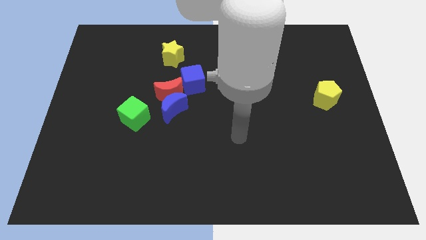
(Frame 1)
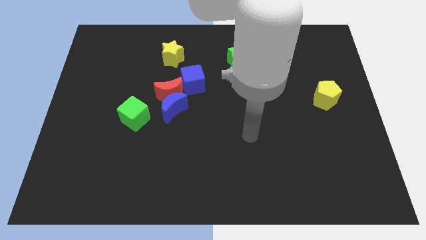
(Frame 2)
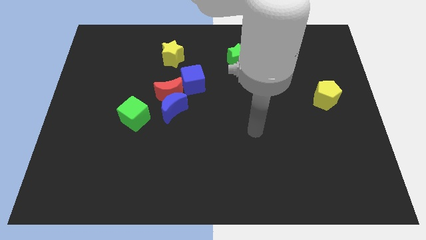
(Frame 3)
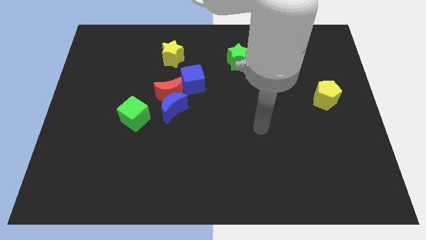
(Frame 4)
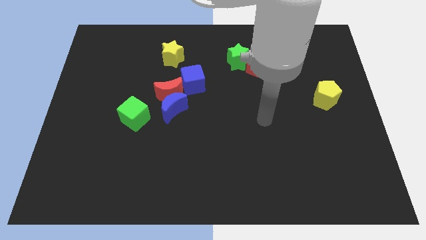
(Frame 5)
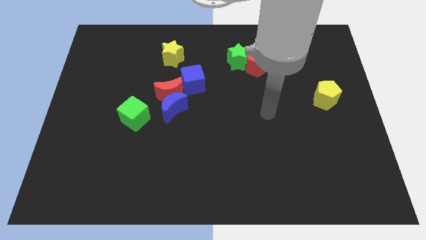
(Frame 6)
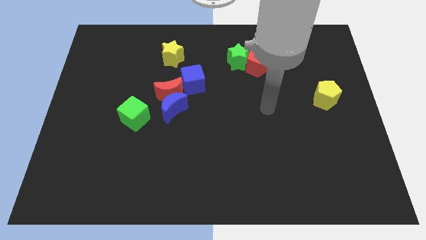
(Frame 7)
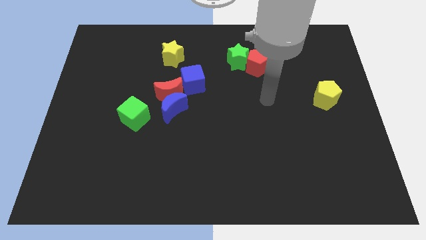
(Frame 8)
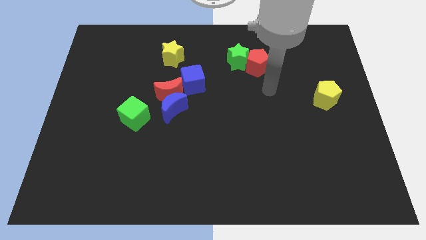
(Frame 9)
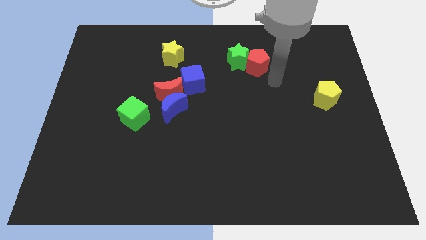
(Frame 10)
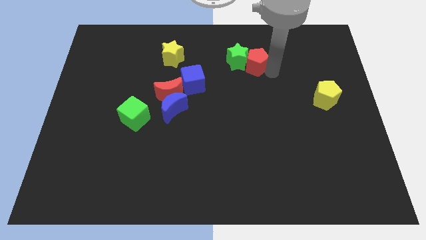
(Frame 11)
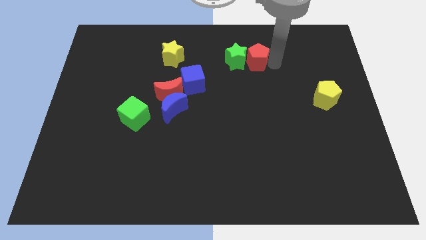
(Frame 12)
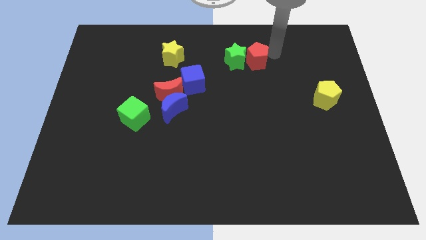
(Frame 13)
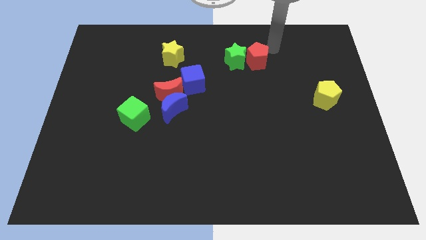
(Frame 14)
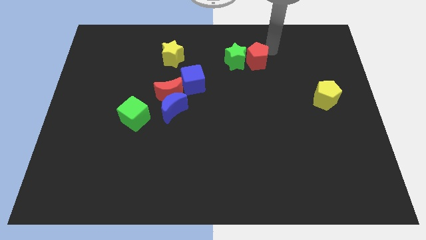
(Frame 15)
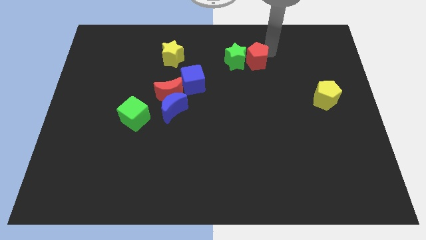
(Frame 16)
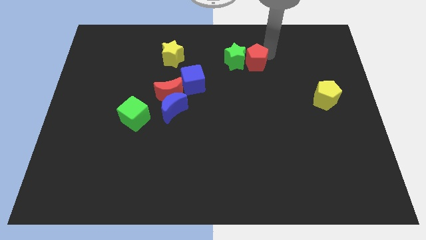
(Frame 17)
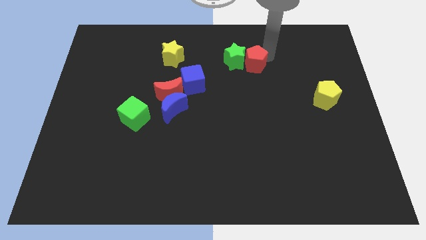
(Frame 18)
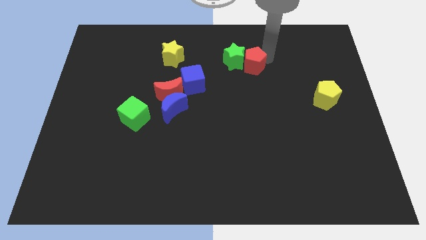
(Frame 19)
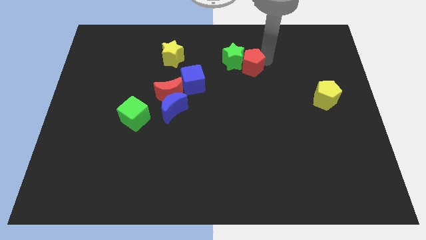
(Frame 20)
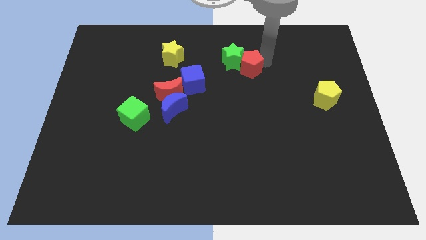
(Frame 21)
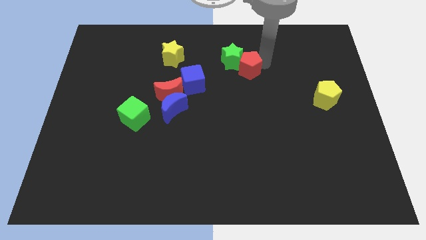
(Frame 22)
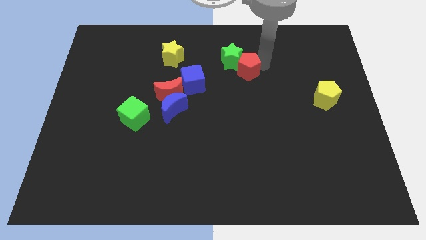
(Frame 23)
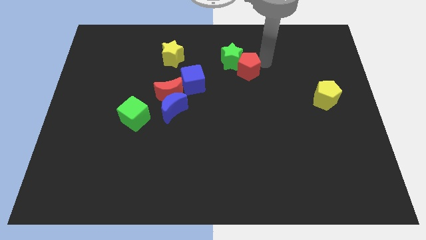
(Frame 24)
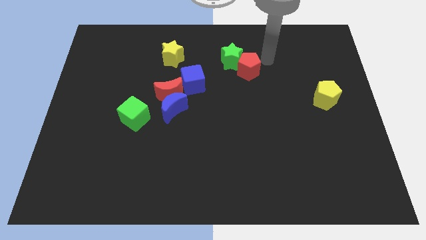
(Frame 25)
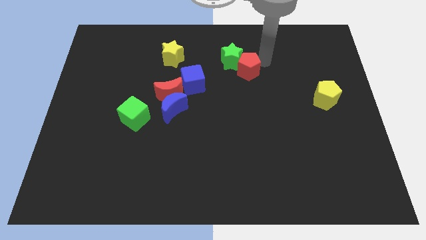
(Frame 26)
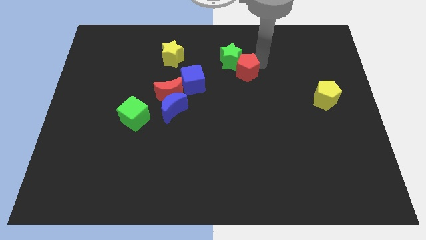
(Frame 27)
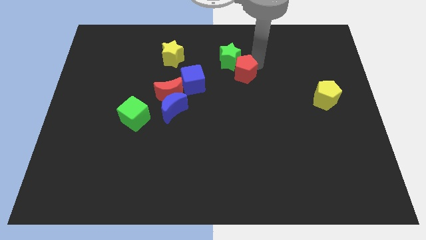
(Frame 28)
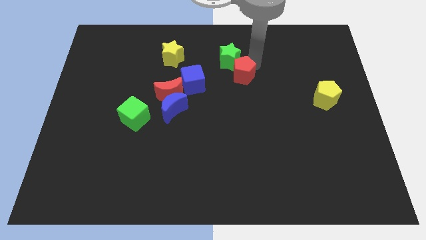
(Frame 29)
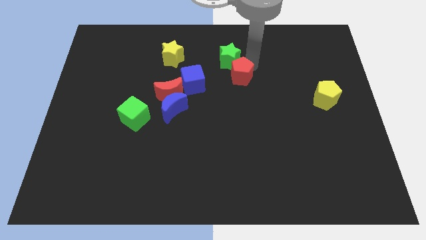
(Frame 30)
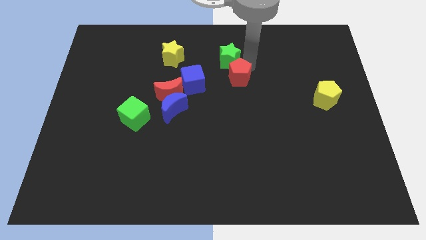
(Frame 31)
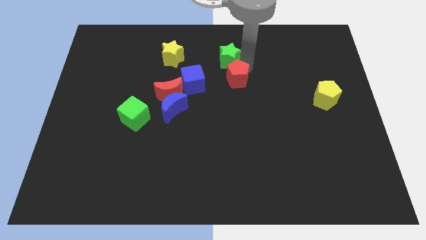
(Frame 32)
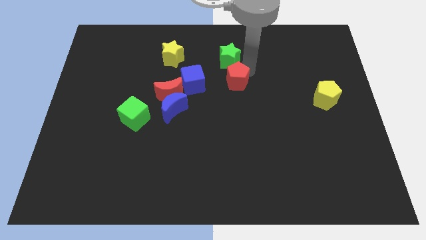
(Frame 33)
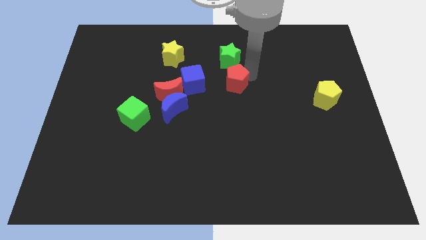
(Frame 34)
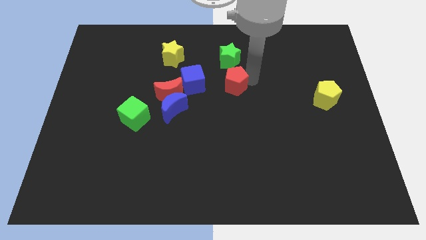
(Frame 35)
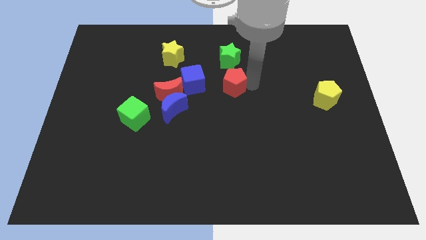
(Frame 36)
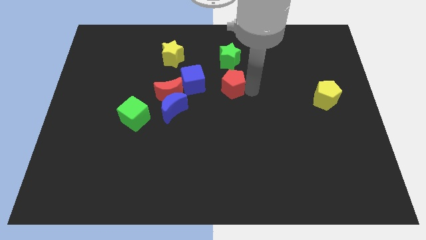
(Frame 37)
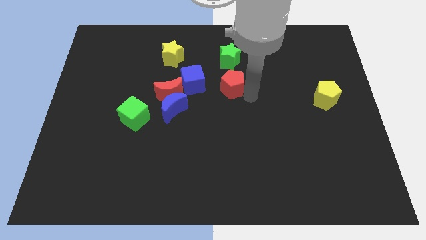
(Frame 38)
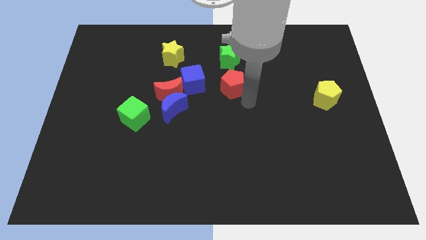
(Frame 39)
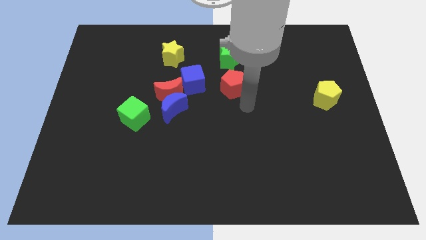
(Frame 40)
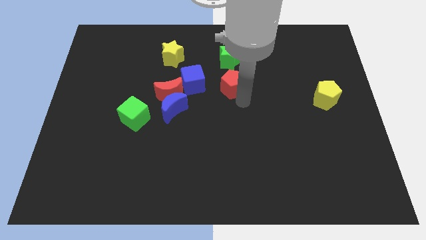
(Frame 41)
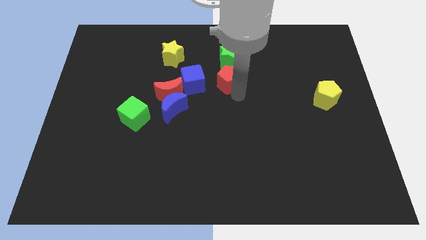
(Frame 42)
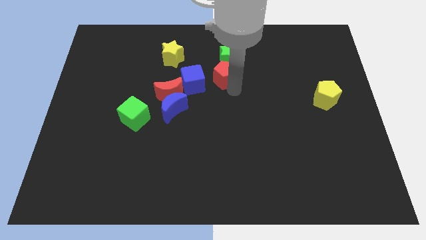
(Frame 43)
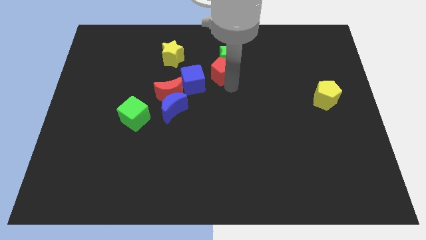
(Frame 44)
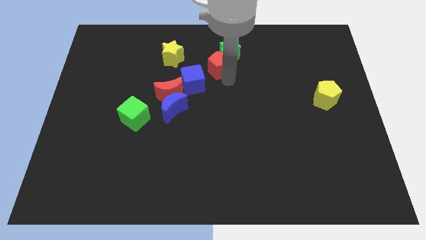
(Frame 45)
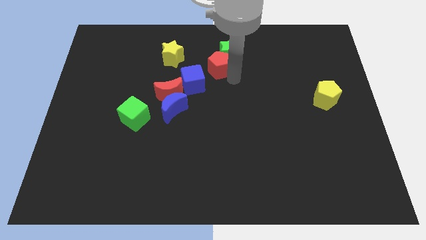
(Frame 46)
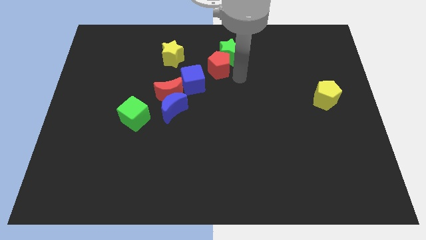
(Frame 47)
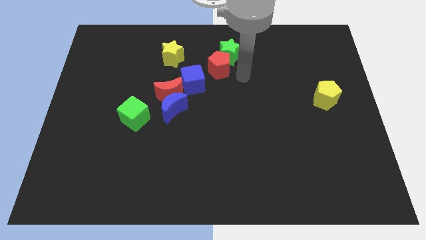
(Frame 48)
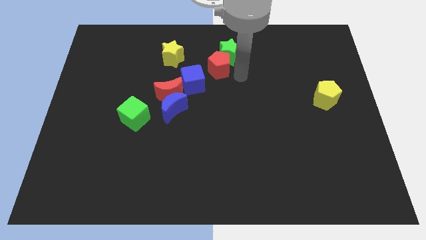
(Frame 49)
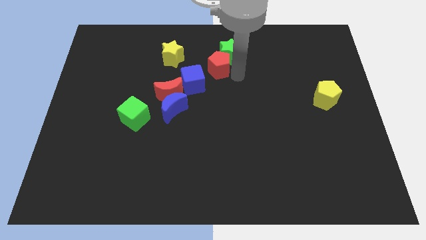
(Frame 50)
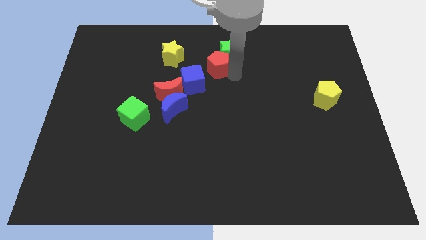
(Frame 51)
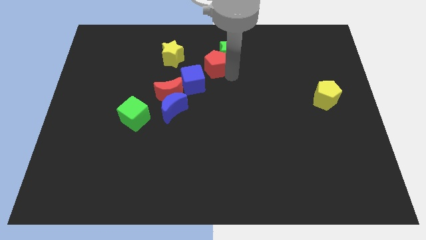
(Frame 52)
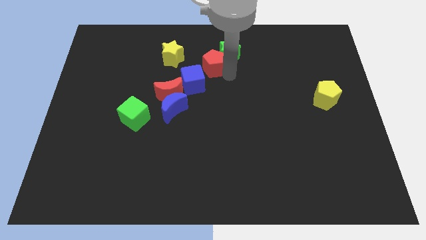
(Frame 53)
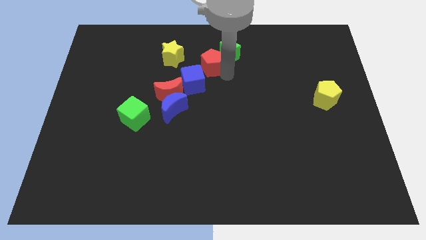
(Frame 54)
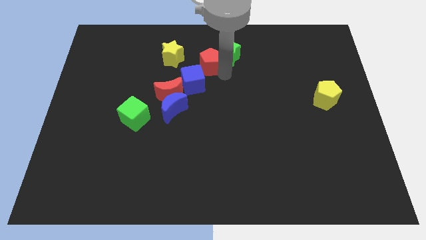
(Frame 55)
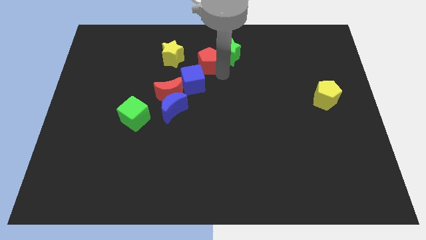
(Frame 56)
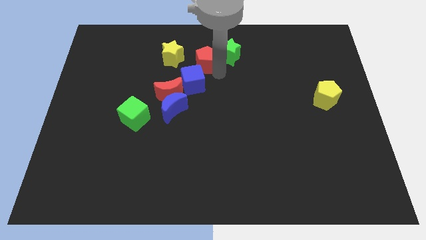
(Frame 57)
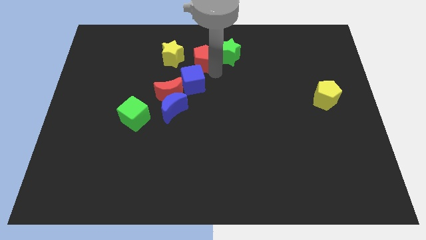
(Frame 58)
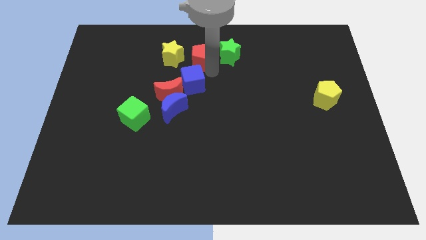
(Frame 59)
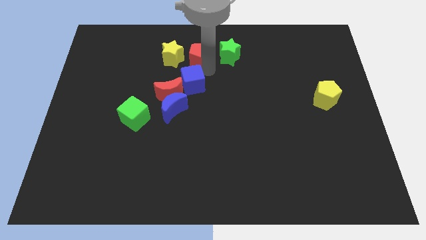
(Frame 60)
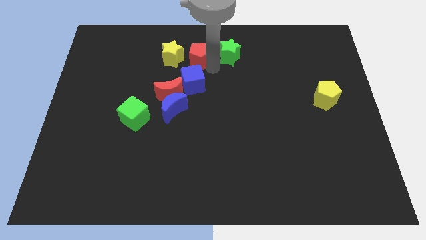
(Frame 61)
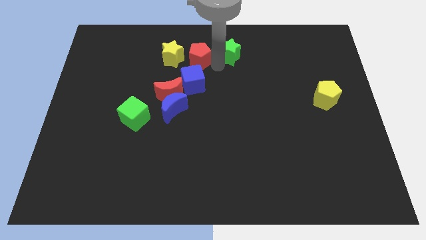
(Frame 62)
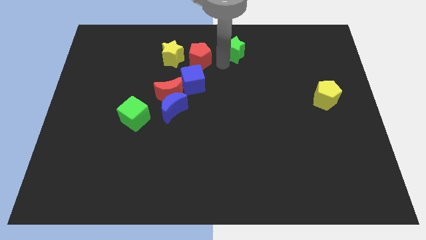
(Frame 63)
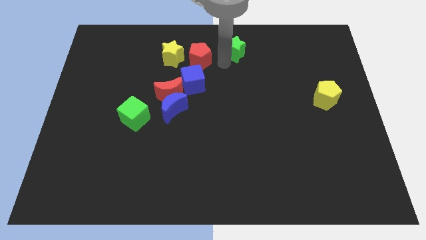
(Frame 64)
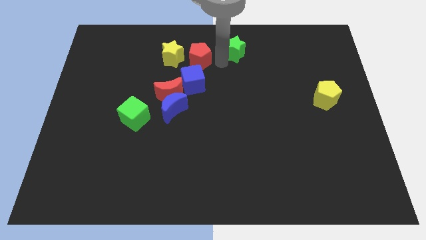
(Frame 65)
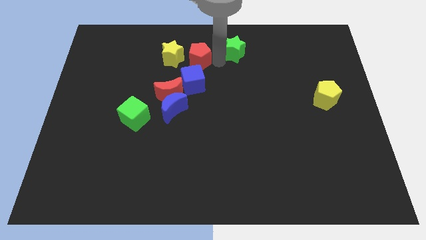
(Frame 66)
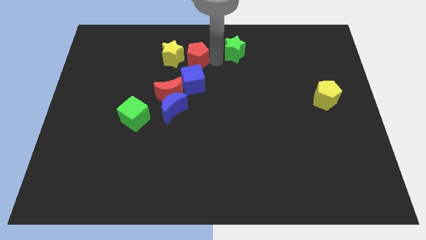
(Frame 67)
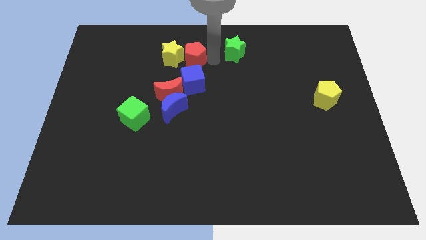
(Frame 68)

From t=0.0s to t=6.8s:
slide the red pentagon towards the yellow star
